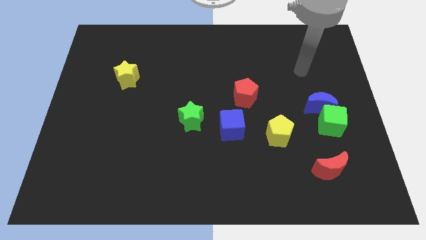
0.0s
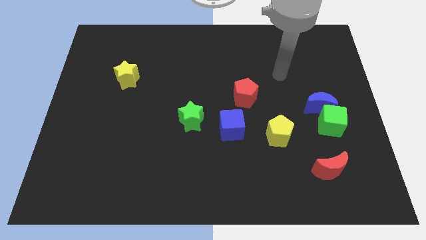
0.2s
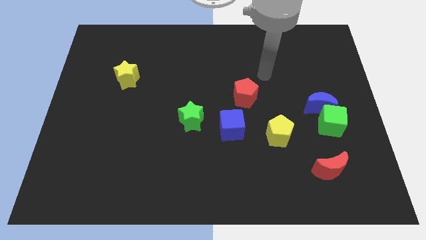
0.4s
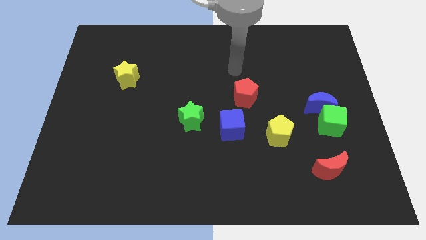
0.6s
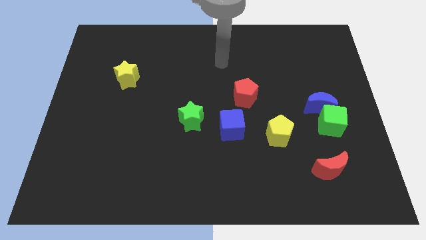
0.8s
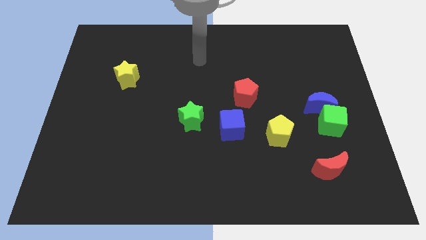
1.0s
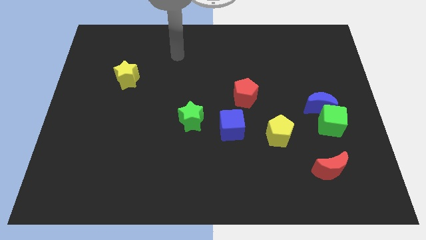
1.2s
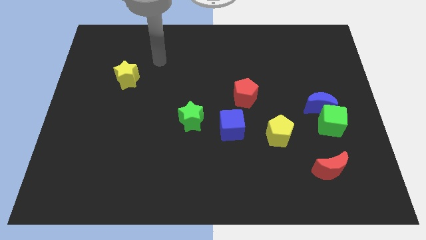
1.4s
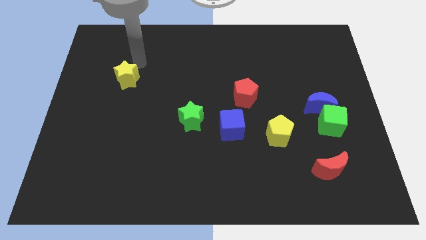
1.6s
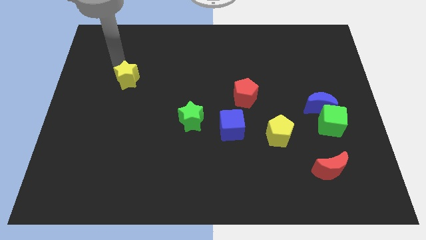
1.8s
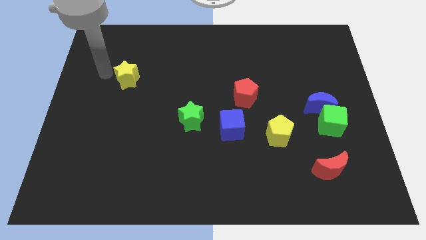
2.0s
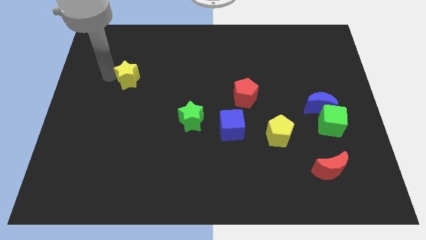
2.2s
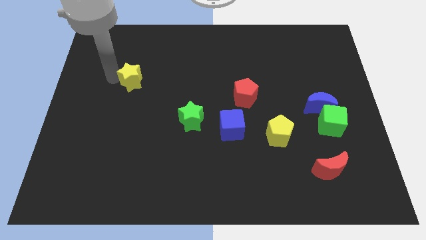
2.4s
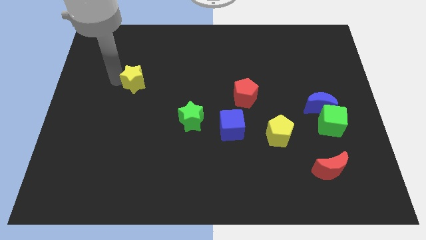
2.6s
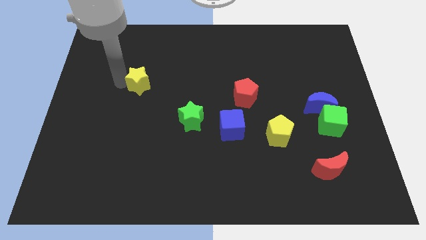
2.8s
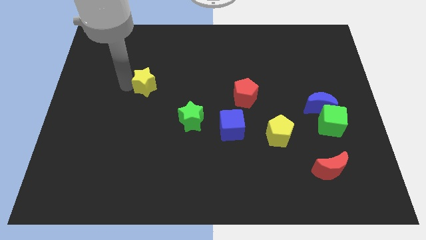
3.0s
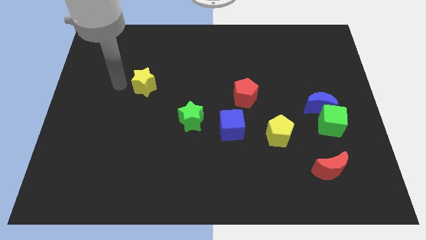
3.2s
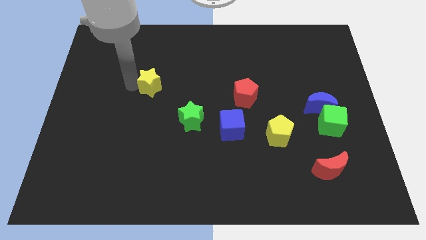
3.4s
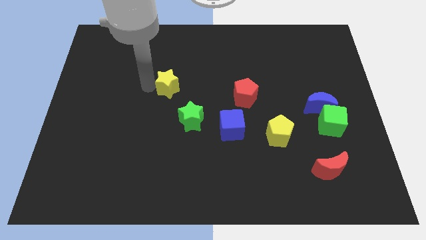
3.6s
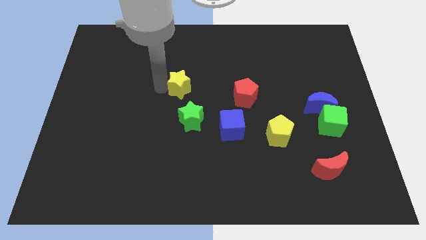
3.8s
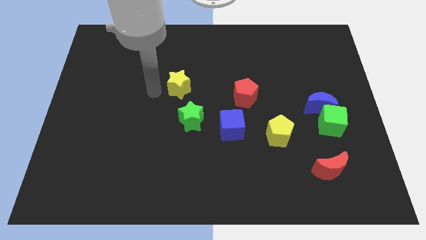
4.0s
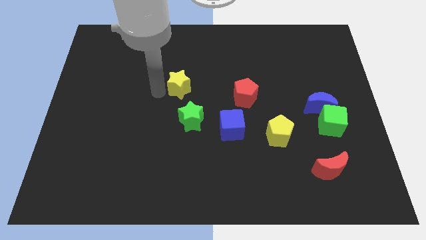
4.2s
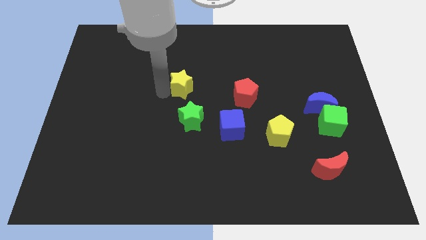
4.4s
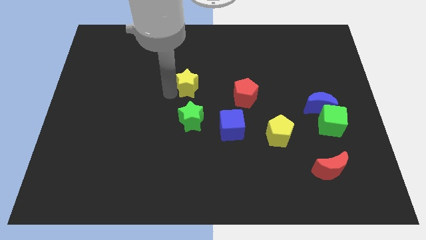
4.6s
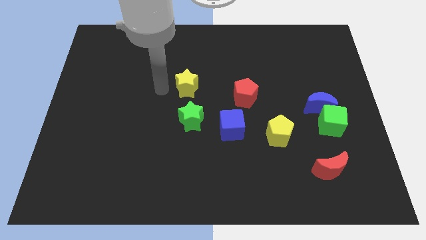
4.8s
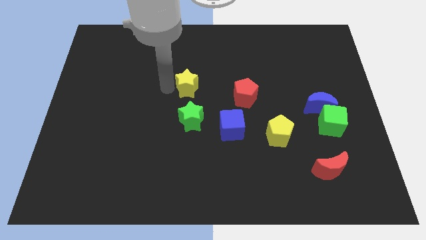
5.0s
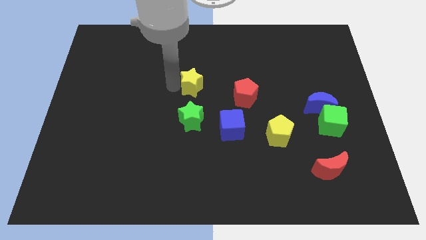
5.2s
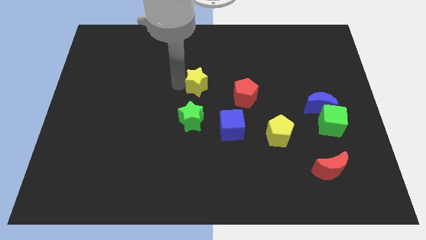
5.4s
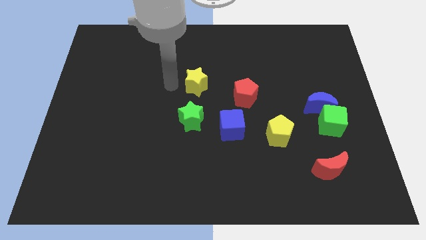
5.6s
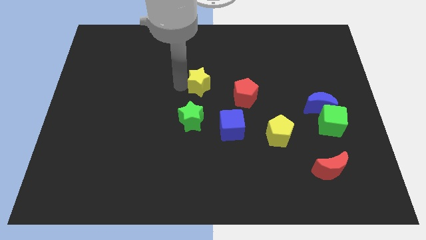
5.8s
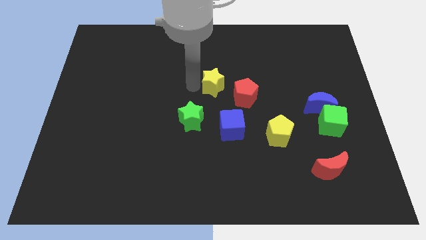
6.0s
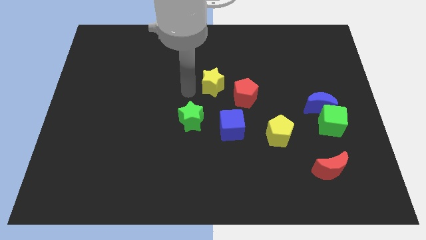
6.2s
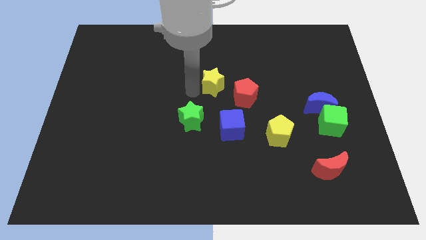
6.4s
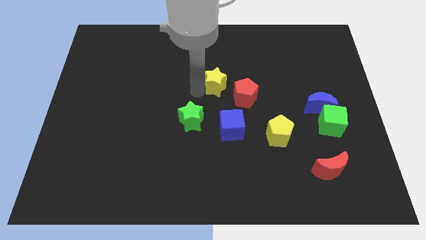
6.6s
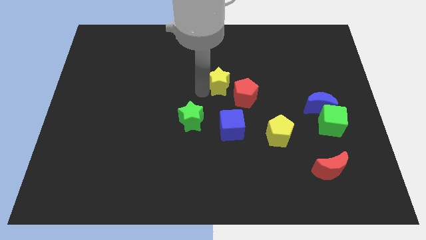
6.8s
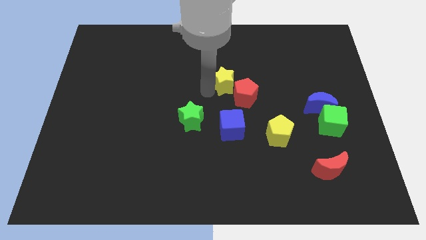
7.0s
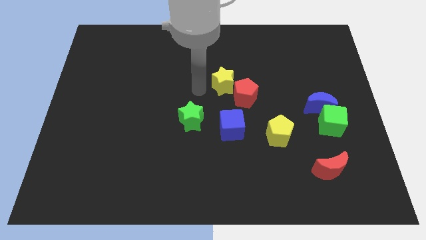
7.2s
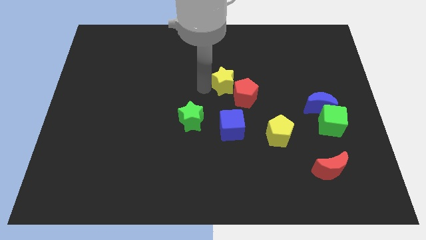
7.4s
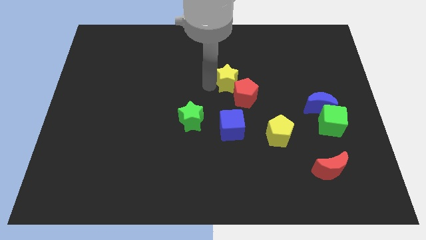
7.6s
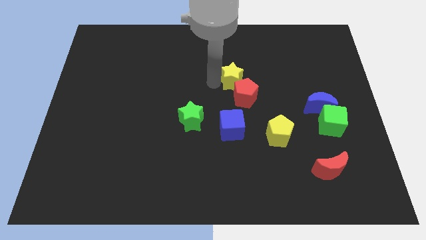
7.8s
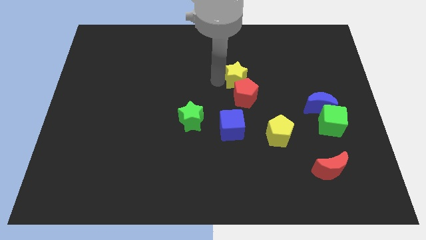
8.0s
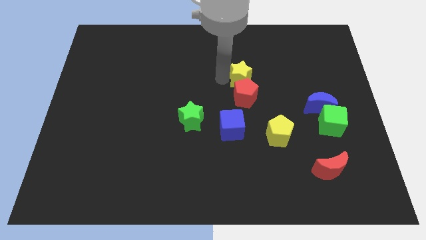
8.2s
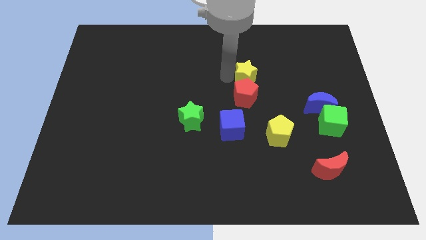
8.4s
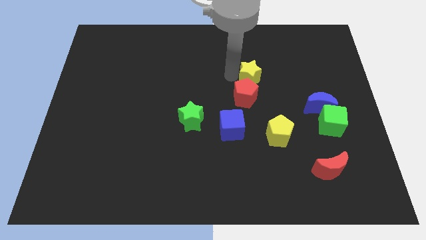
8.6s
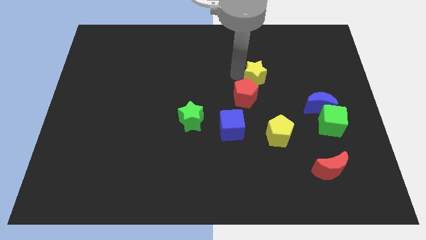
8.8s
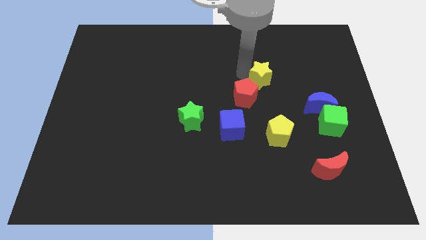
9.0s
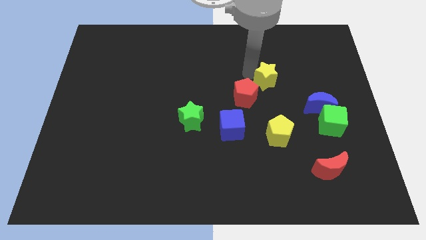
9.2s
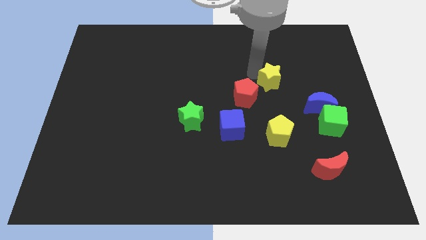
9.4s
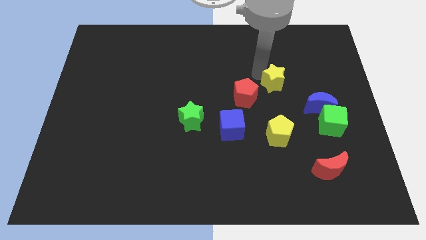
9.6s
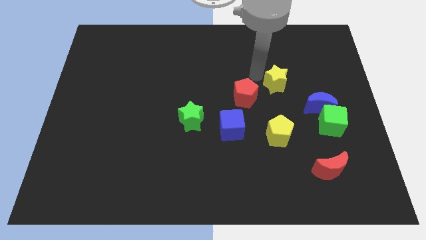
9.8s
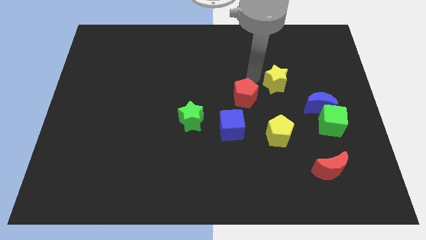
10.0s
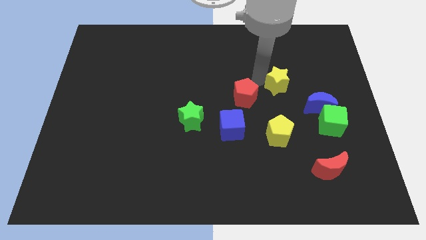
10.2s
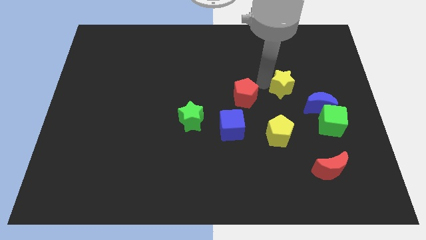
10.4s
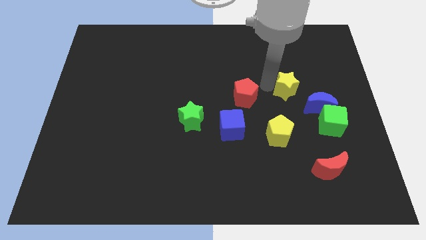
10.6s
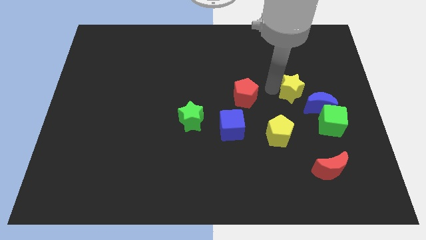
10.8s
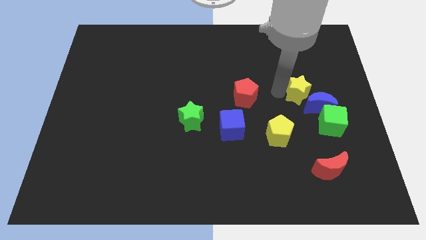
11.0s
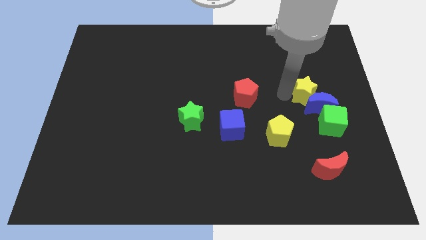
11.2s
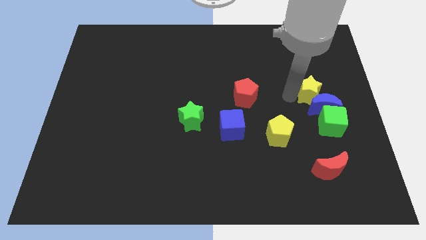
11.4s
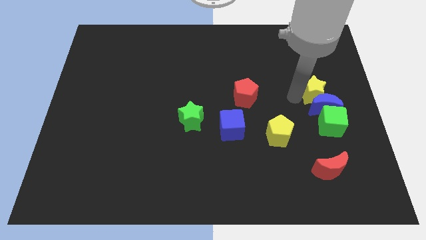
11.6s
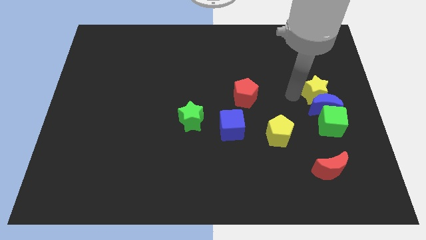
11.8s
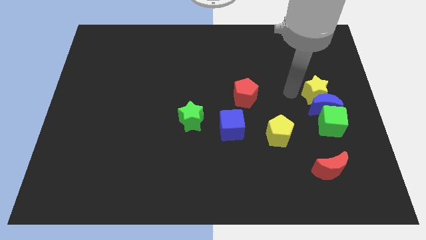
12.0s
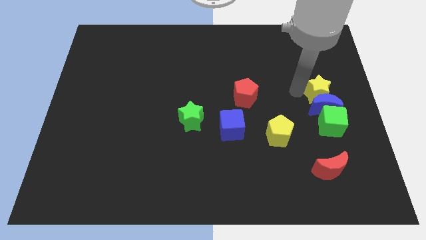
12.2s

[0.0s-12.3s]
push the yellow star to the right side of the board
